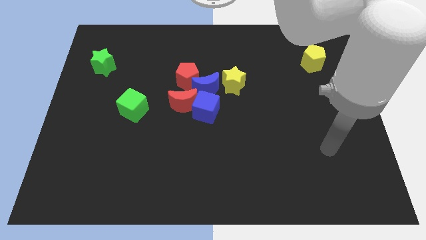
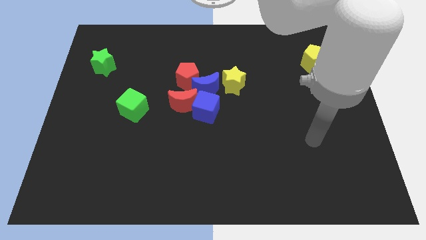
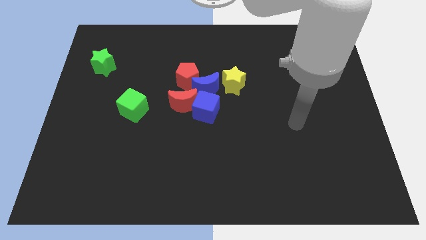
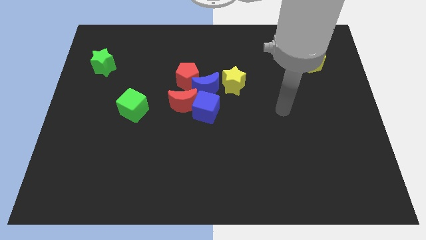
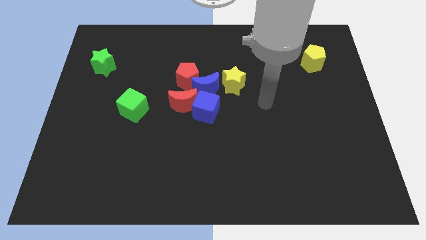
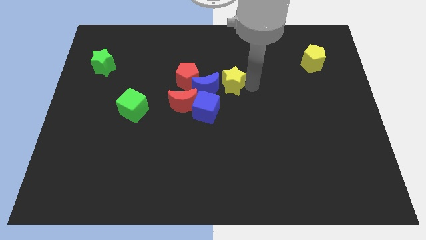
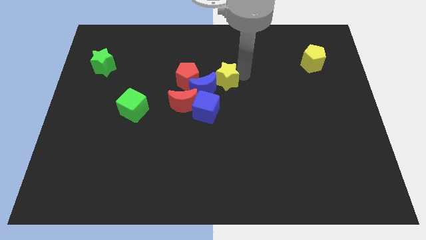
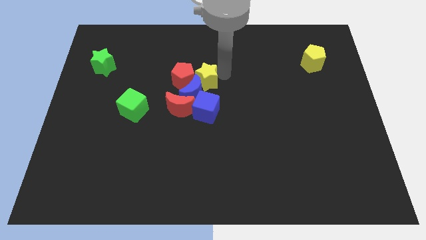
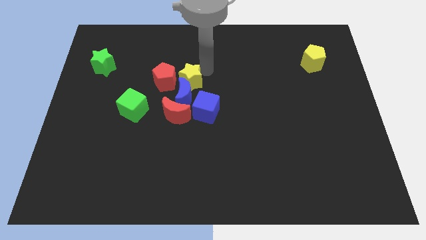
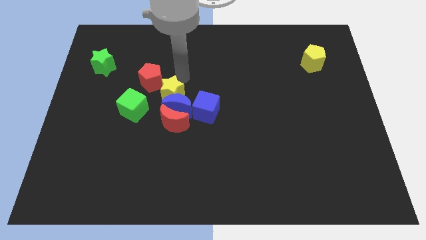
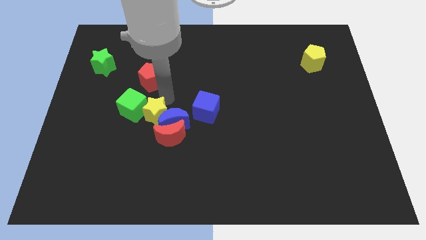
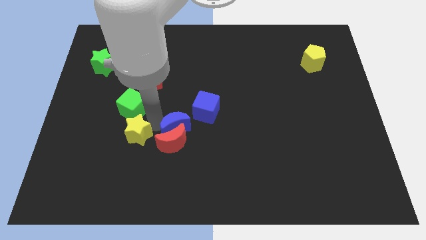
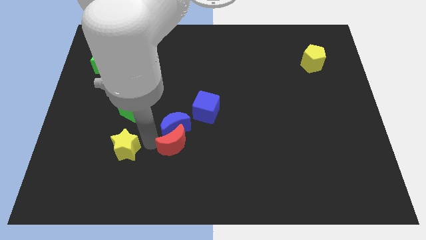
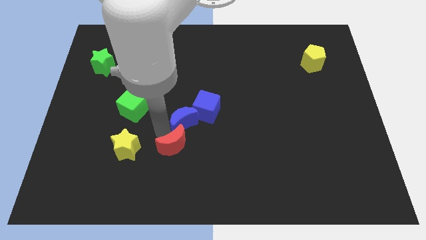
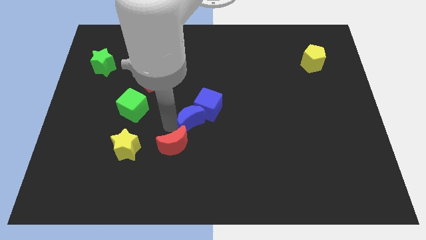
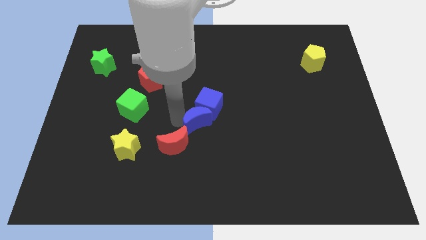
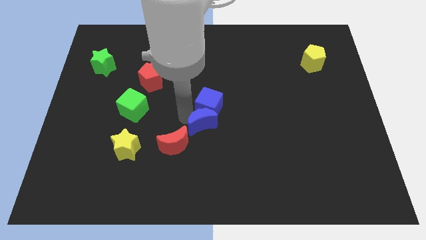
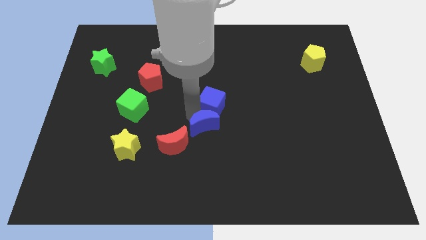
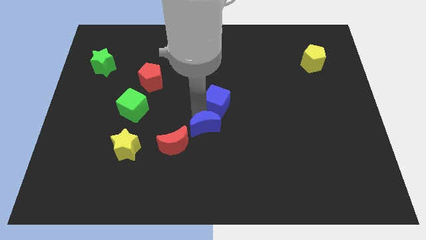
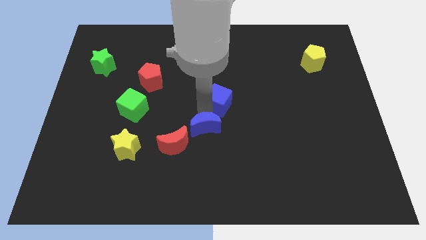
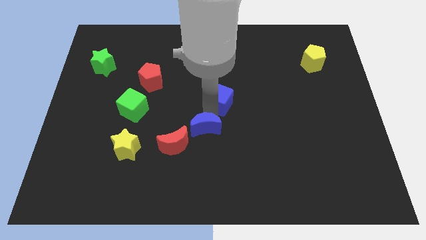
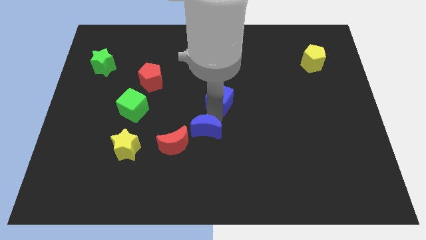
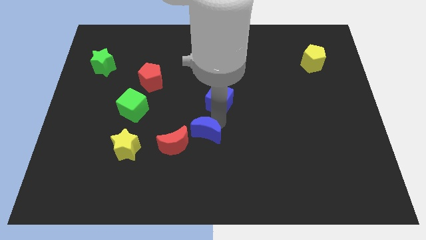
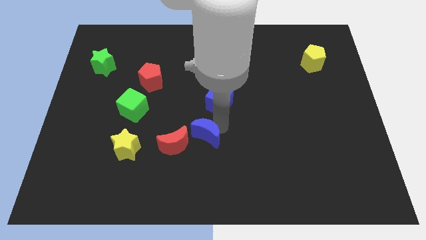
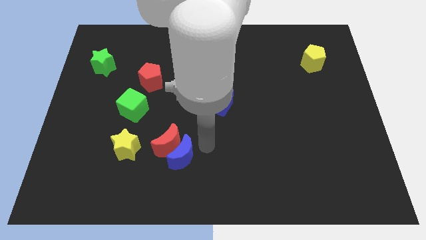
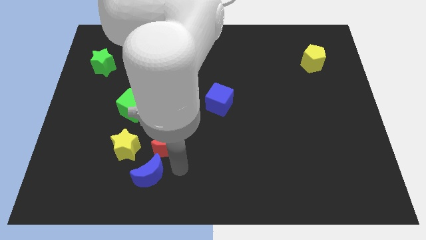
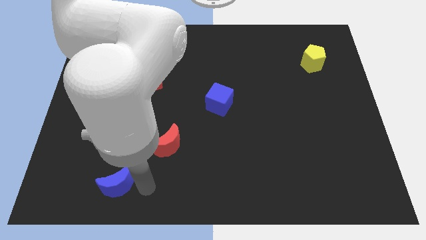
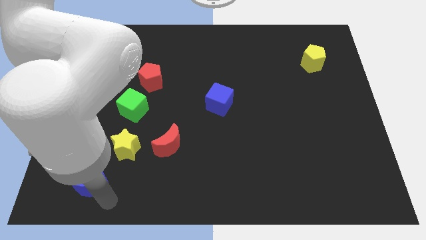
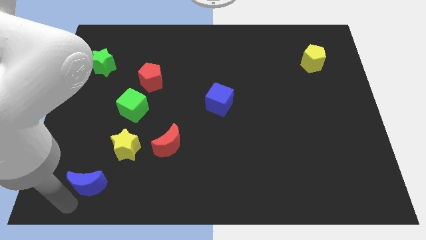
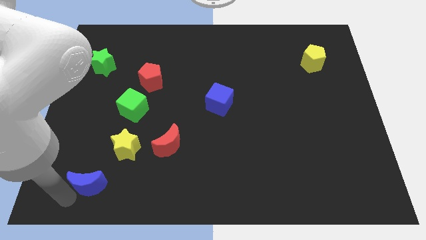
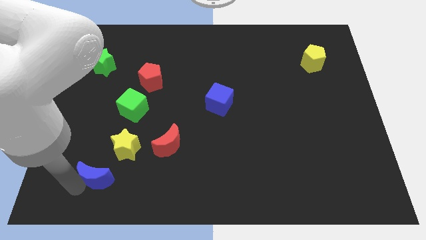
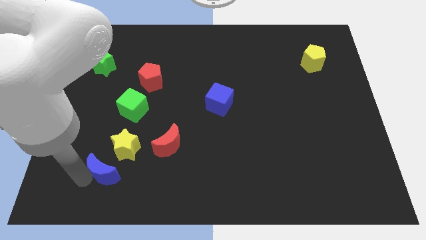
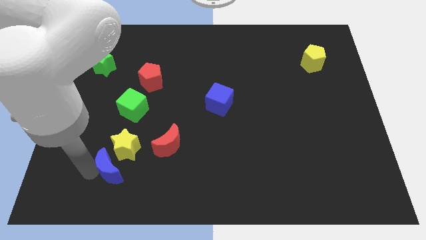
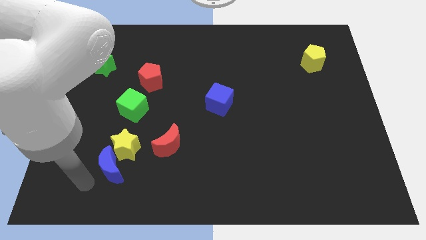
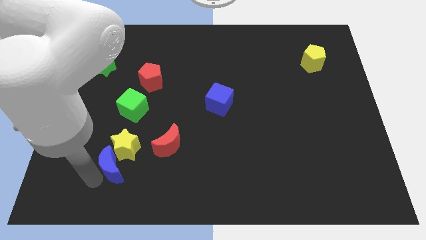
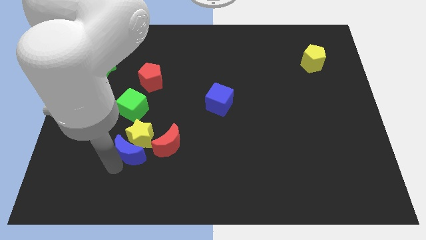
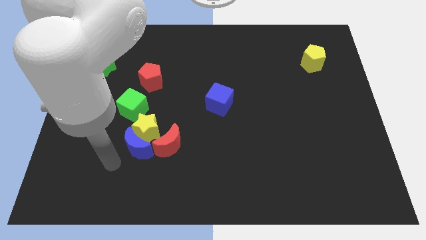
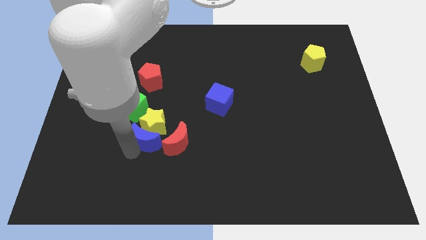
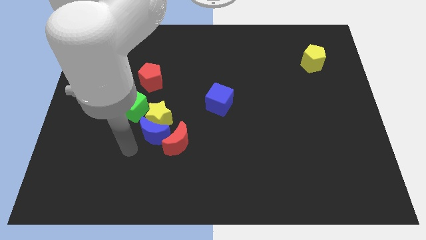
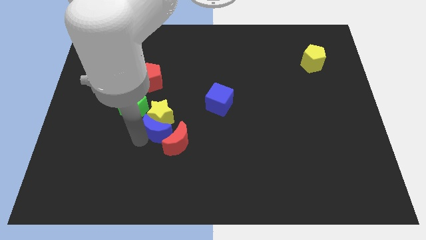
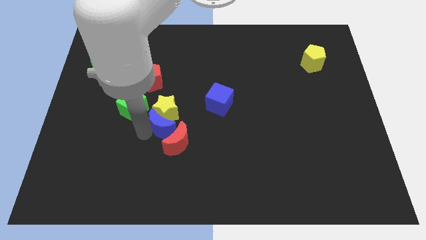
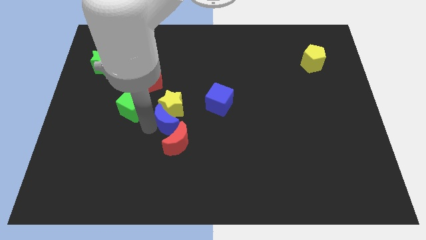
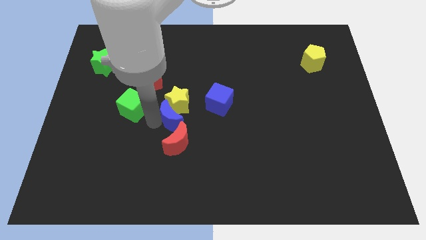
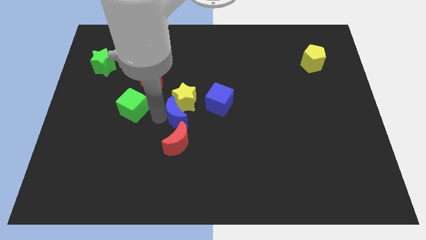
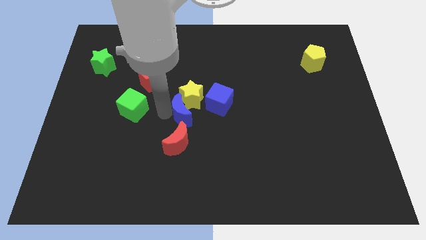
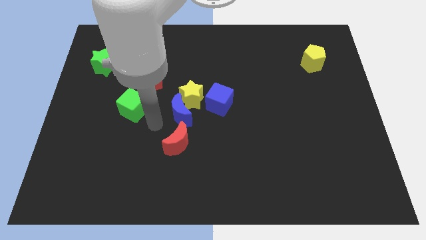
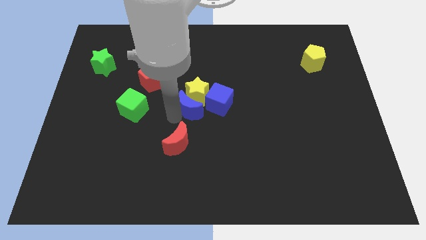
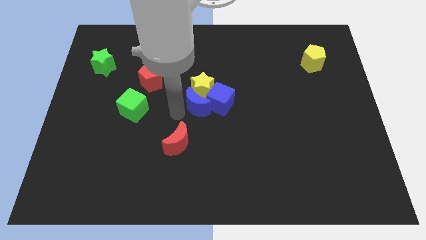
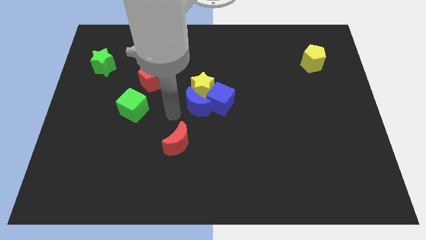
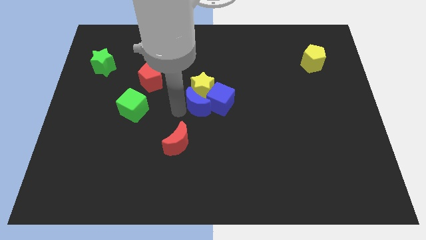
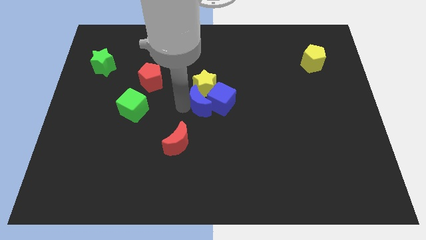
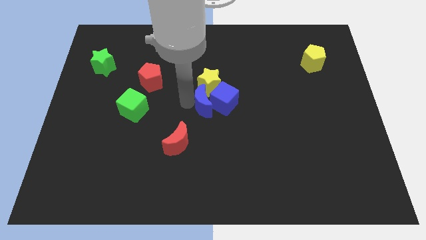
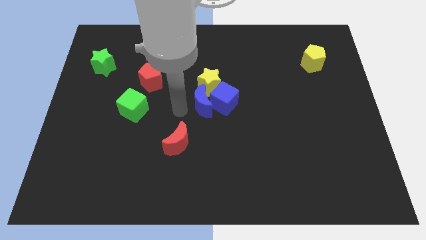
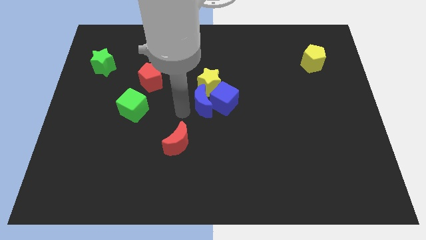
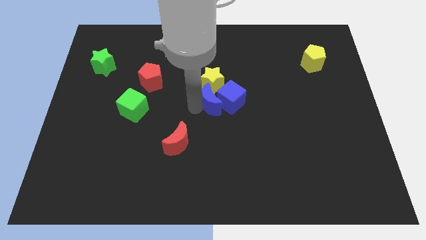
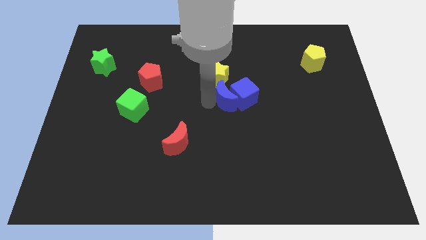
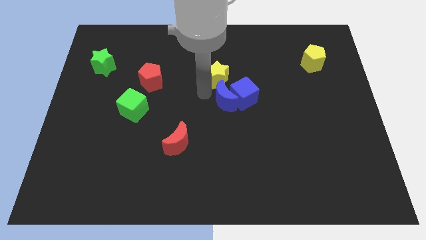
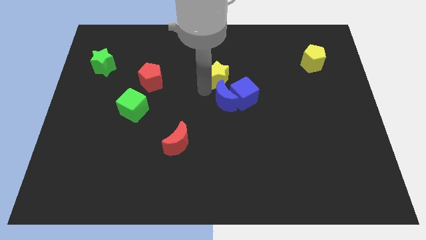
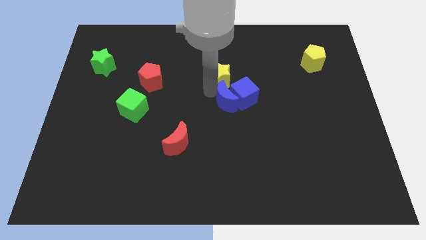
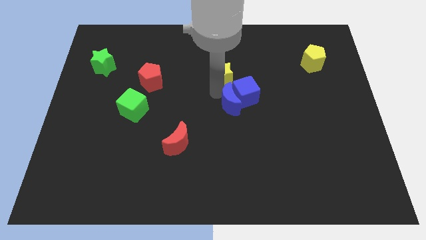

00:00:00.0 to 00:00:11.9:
slightly slide the blue moon diagonally downwards and right

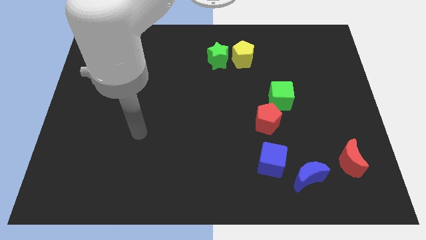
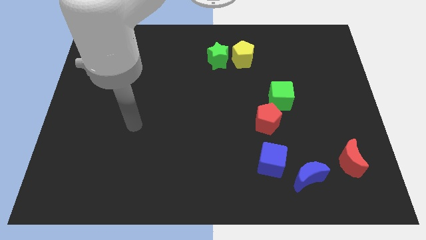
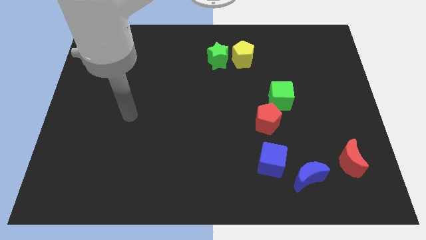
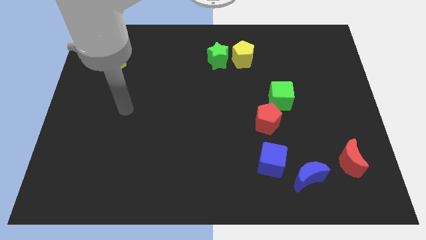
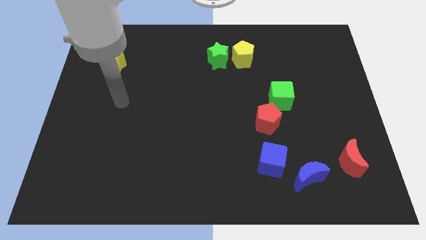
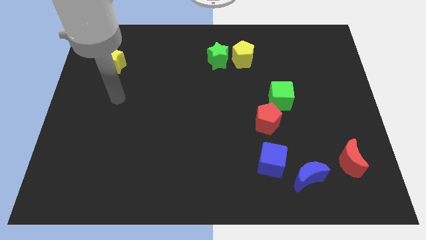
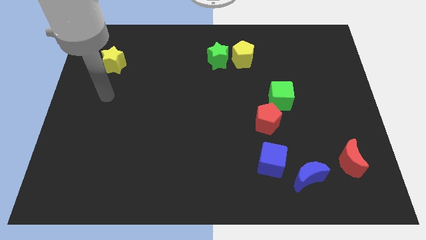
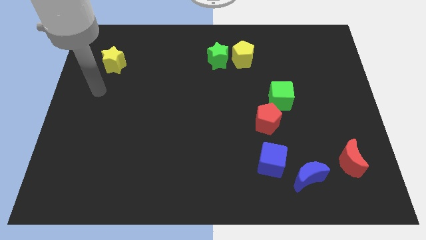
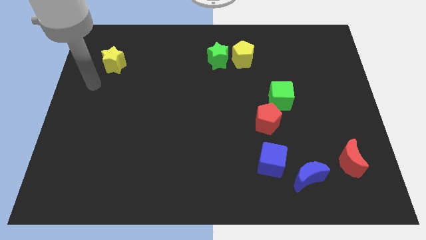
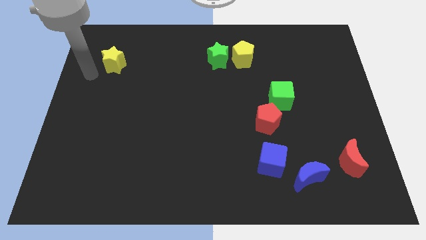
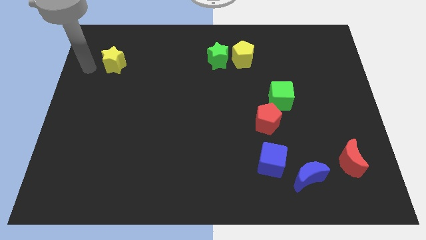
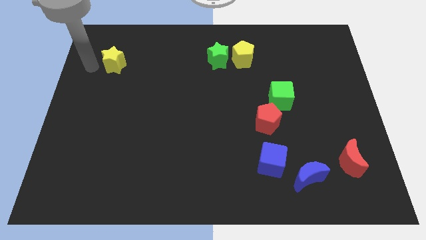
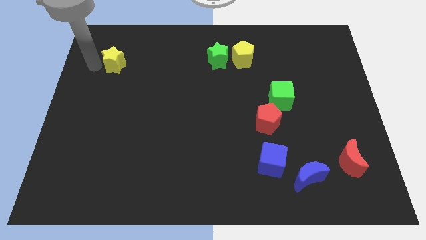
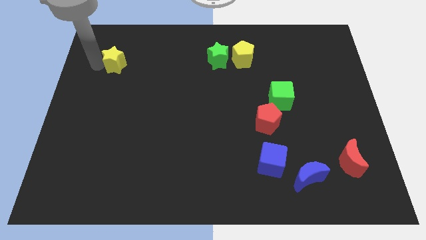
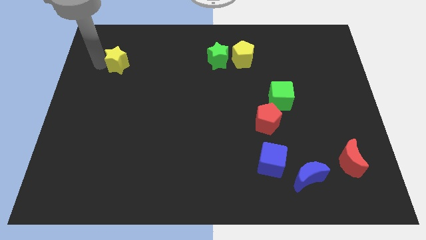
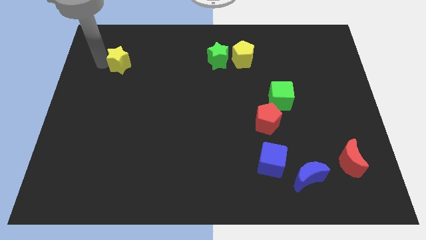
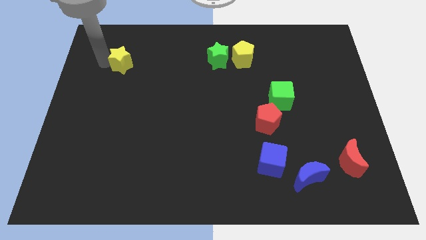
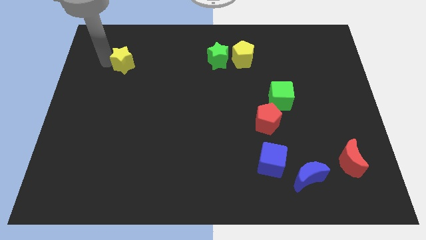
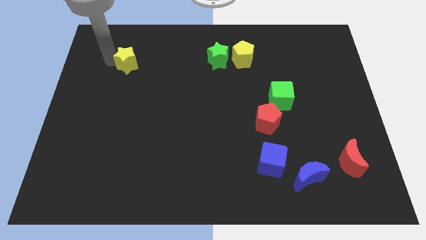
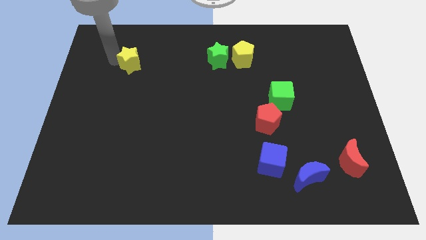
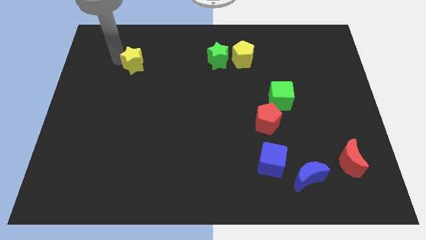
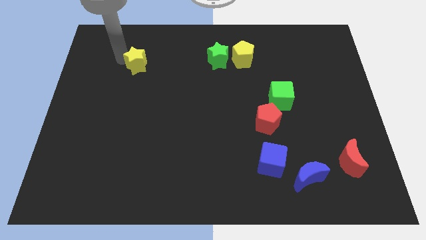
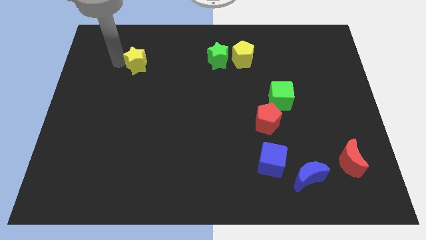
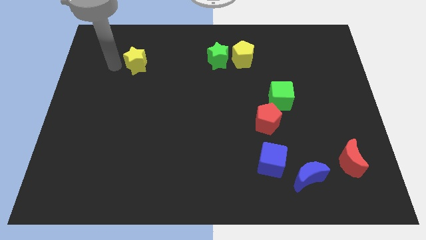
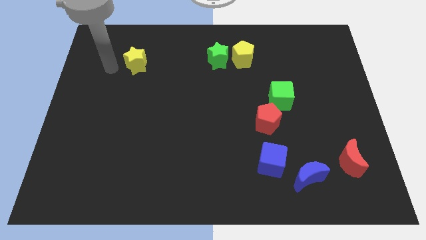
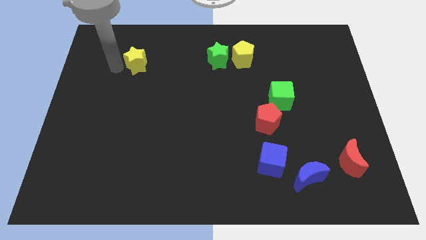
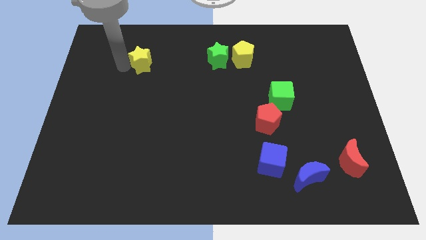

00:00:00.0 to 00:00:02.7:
push the yellow star right slightly
